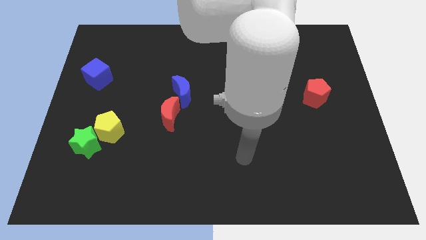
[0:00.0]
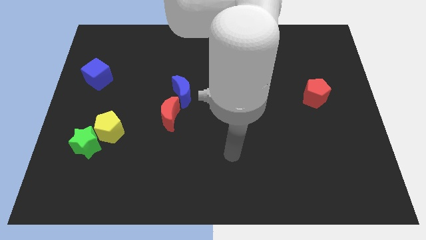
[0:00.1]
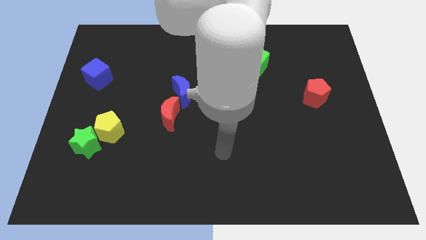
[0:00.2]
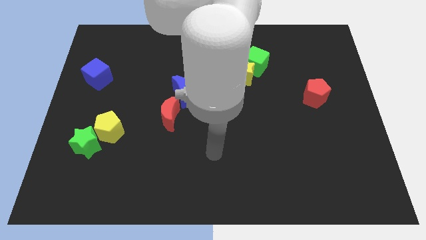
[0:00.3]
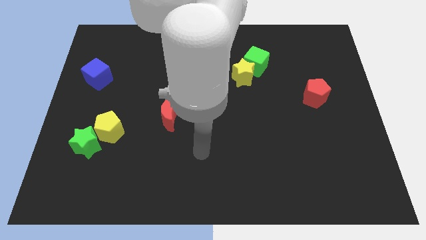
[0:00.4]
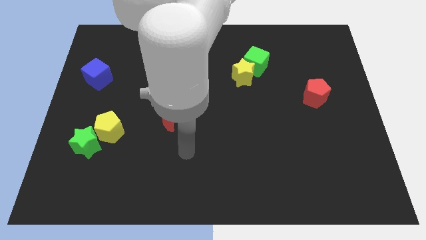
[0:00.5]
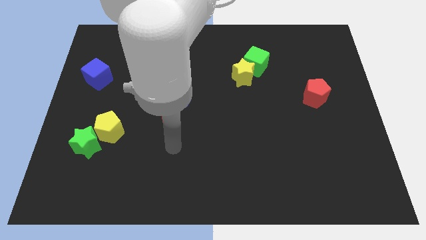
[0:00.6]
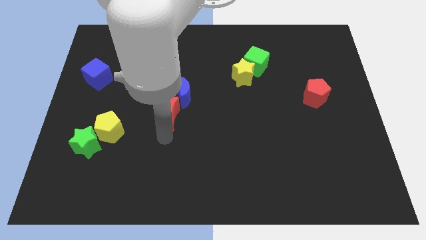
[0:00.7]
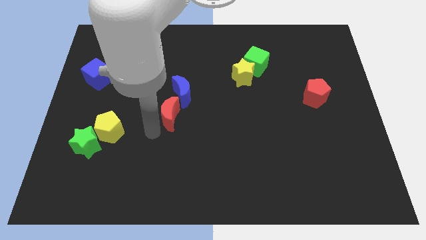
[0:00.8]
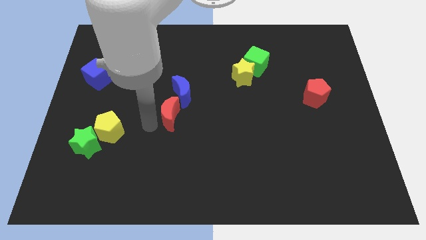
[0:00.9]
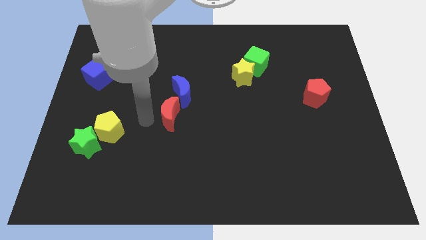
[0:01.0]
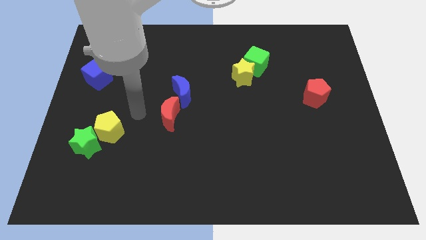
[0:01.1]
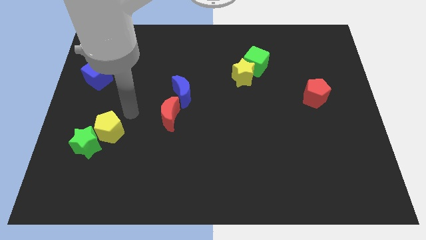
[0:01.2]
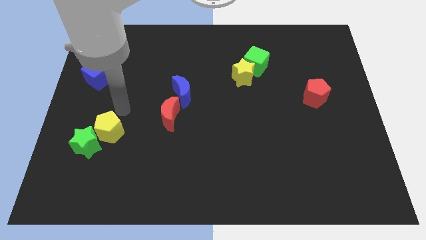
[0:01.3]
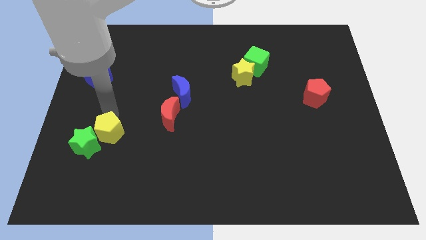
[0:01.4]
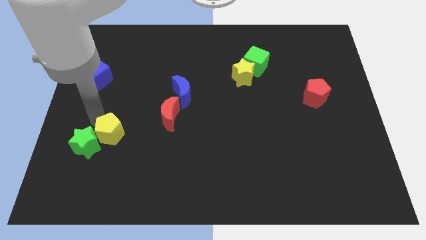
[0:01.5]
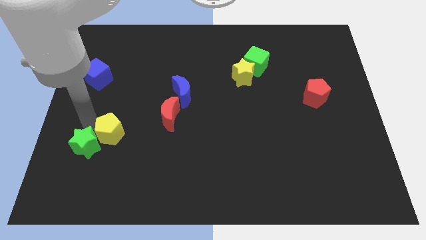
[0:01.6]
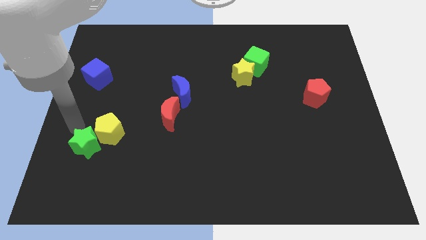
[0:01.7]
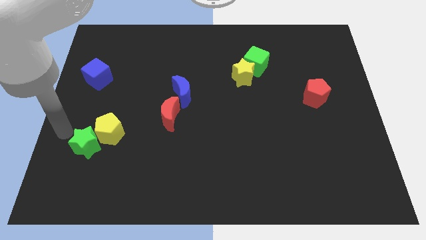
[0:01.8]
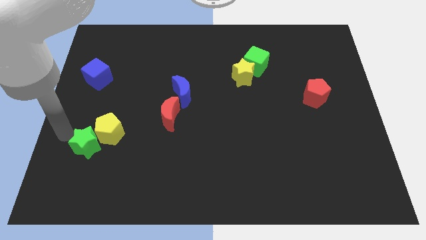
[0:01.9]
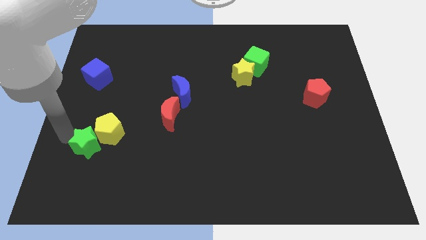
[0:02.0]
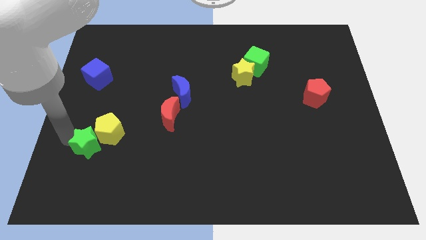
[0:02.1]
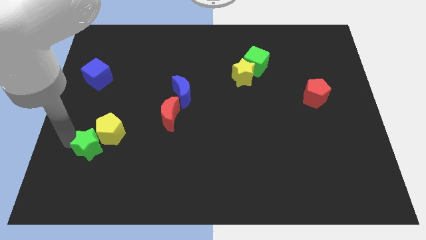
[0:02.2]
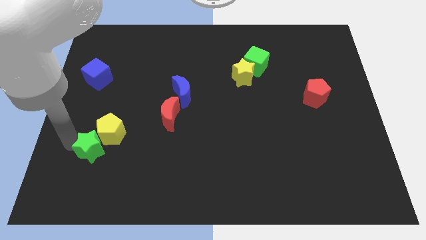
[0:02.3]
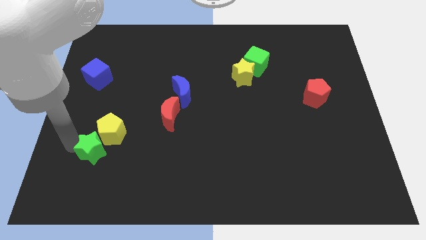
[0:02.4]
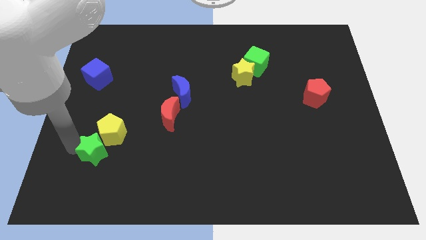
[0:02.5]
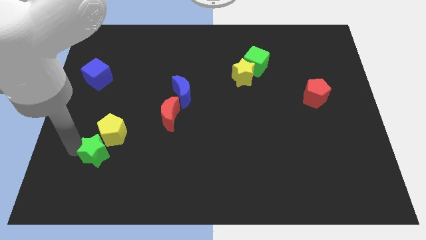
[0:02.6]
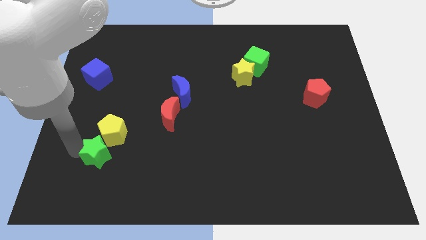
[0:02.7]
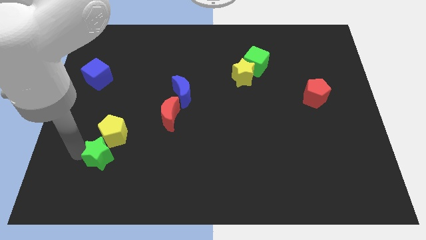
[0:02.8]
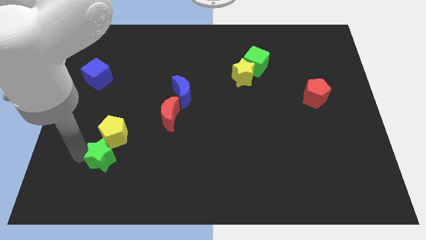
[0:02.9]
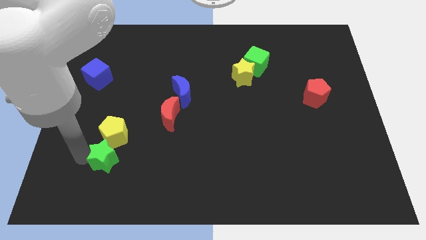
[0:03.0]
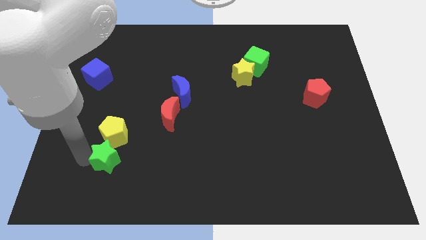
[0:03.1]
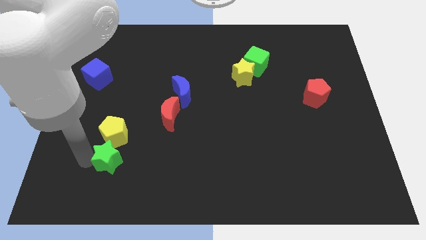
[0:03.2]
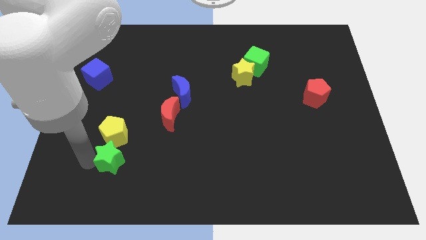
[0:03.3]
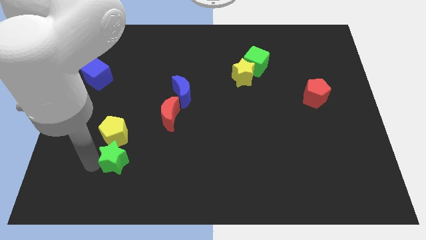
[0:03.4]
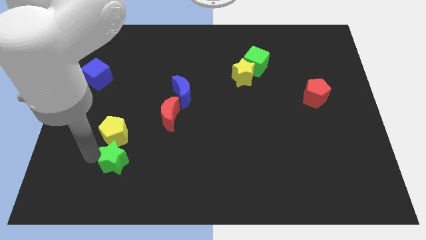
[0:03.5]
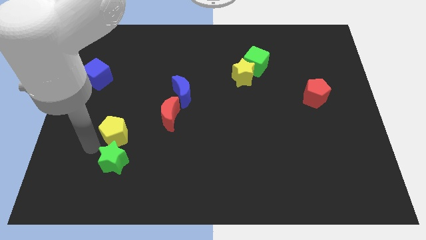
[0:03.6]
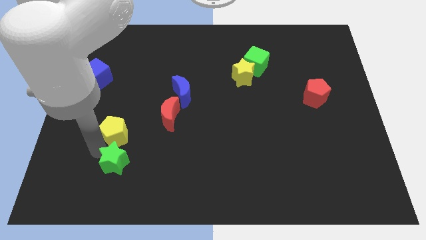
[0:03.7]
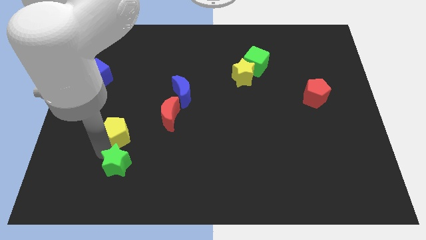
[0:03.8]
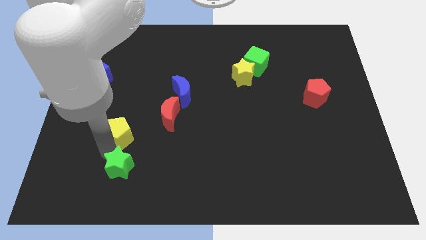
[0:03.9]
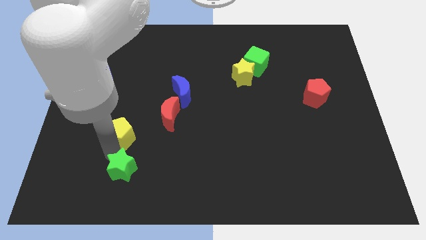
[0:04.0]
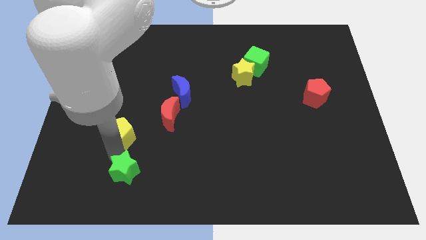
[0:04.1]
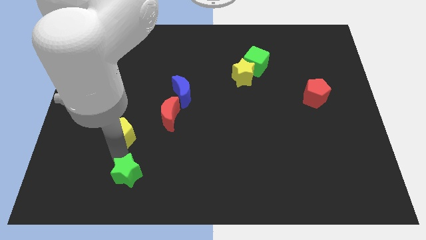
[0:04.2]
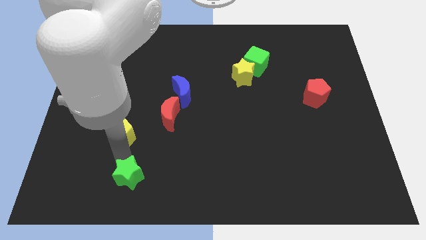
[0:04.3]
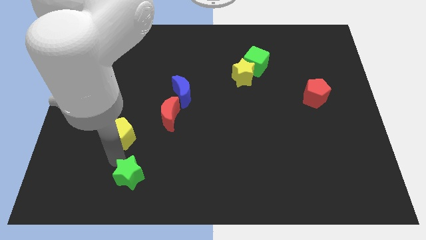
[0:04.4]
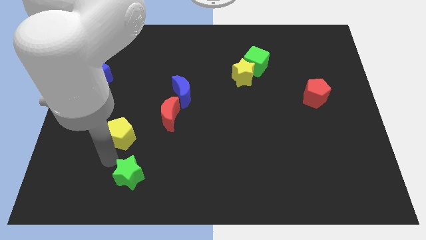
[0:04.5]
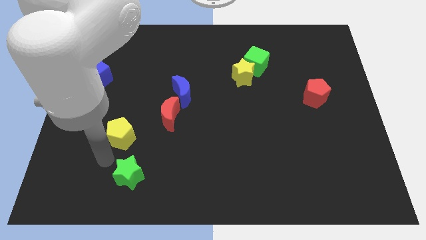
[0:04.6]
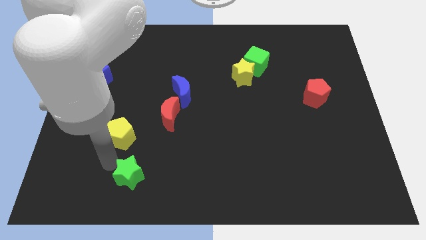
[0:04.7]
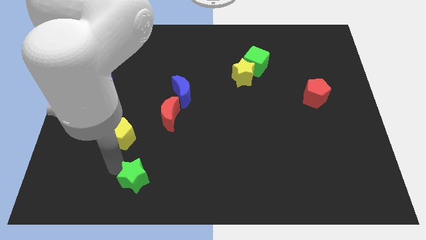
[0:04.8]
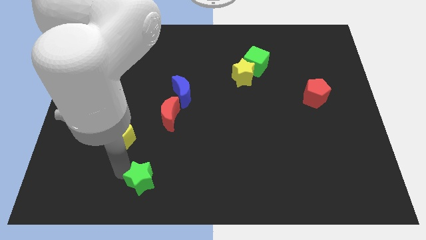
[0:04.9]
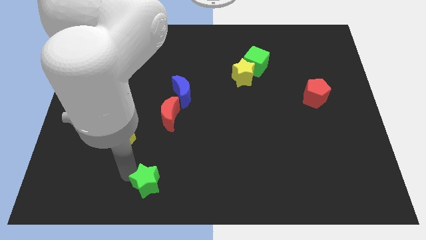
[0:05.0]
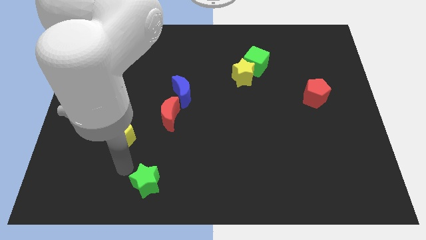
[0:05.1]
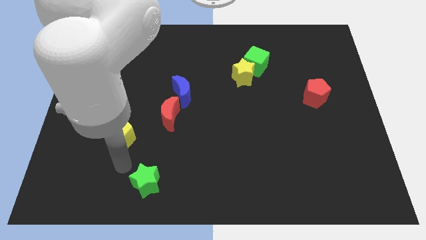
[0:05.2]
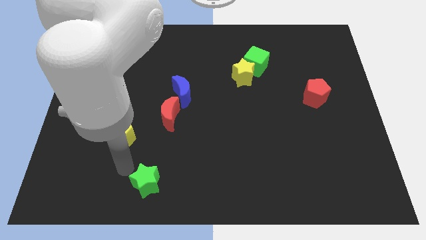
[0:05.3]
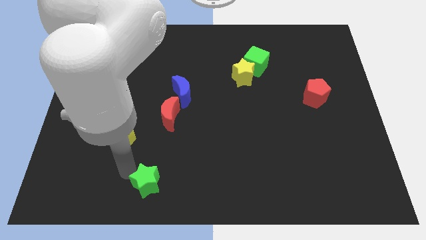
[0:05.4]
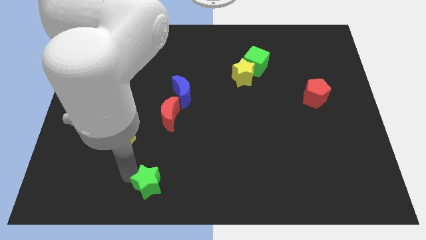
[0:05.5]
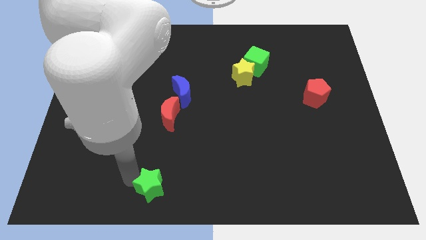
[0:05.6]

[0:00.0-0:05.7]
push the green star to the bottom side
